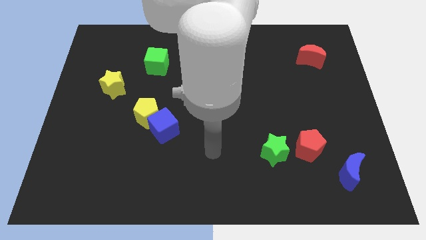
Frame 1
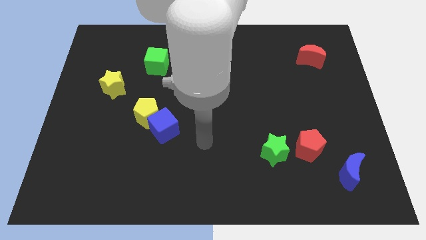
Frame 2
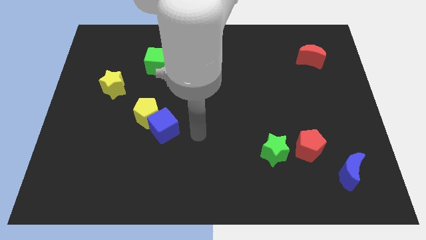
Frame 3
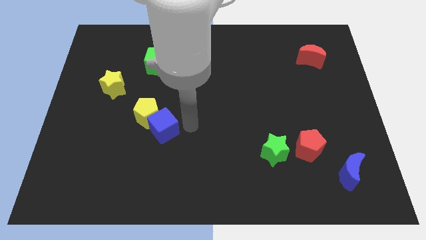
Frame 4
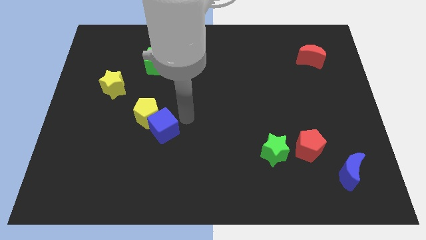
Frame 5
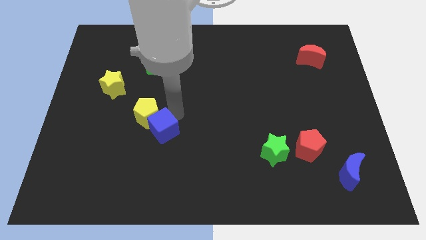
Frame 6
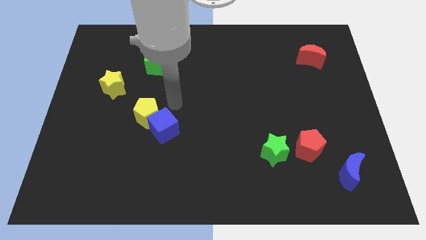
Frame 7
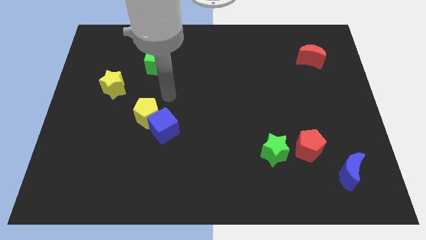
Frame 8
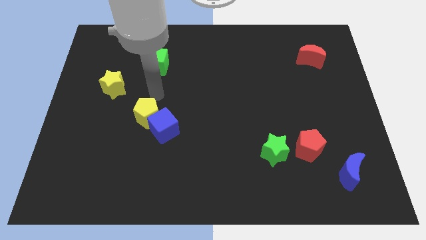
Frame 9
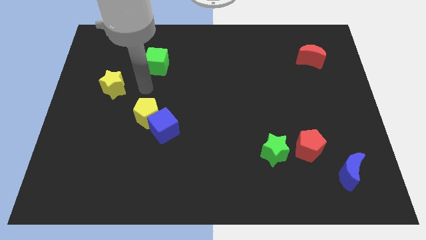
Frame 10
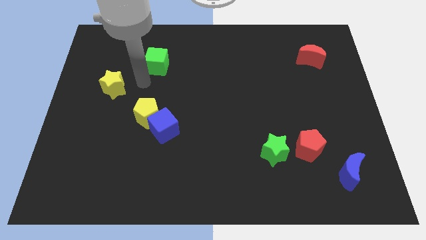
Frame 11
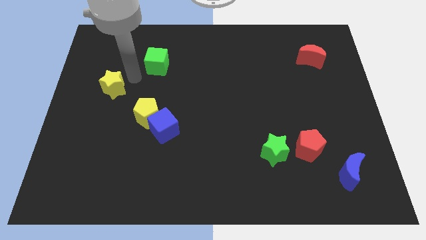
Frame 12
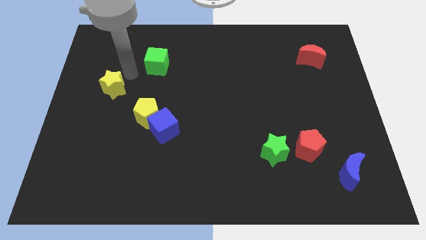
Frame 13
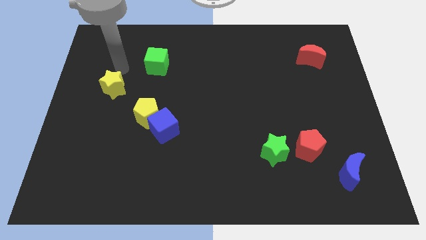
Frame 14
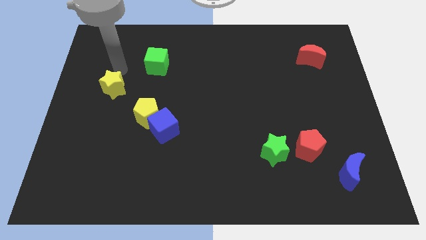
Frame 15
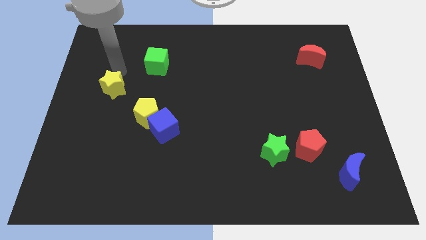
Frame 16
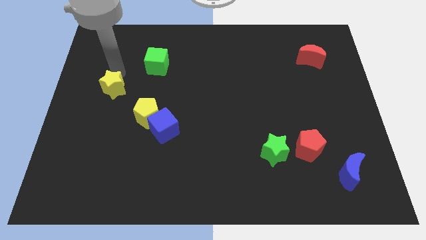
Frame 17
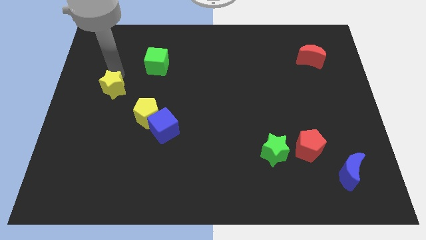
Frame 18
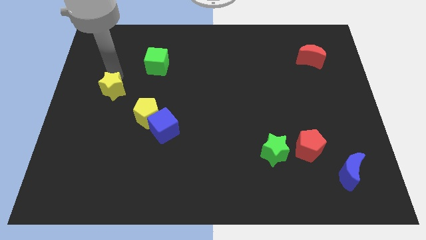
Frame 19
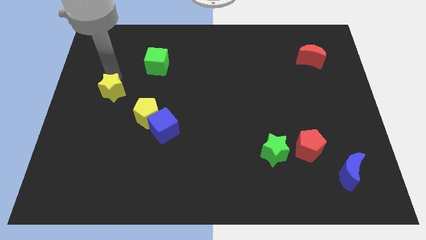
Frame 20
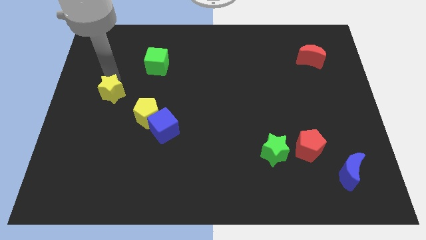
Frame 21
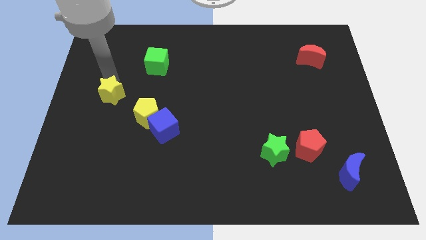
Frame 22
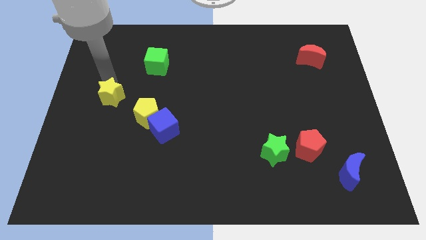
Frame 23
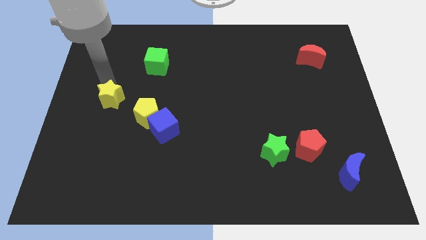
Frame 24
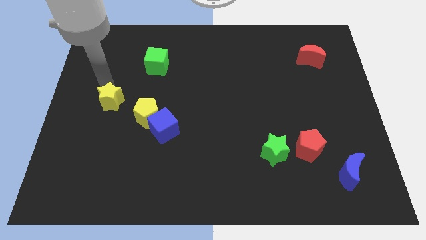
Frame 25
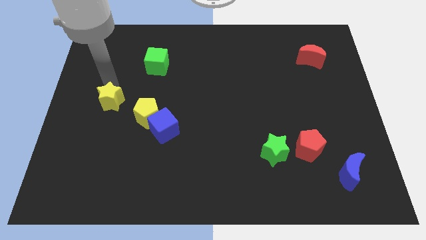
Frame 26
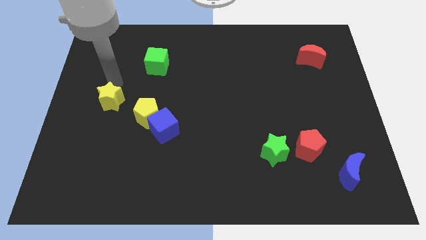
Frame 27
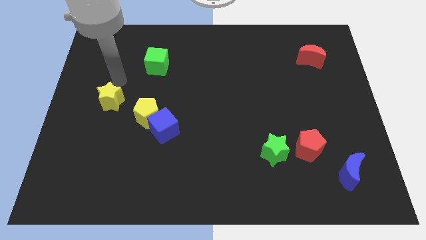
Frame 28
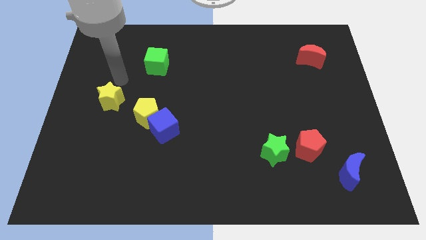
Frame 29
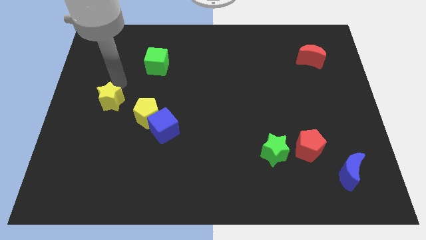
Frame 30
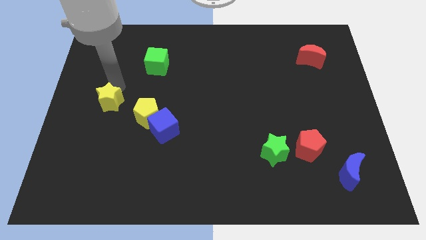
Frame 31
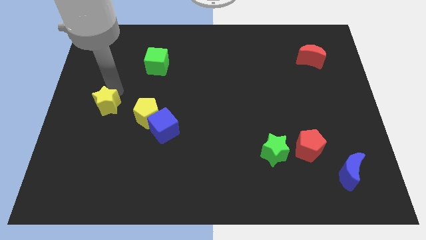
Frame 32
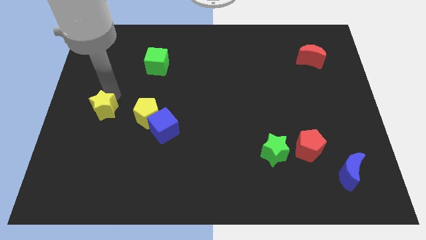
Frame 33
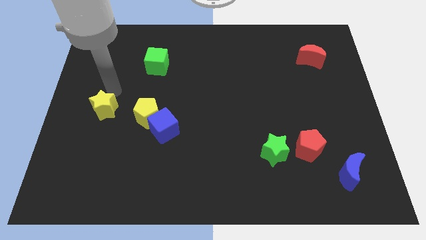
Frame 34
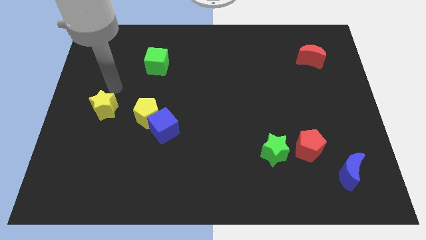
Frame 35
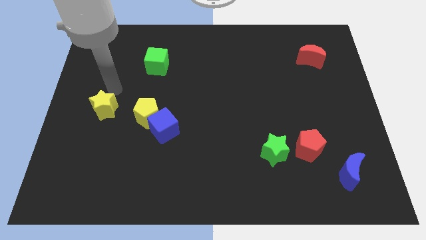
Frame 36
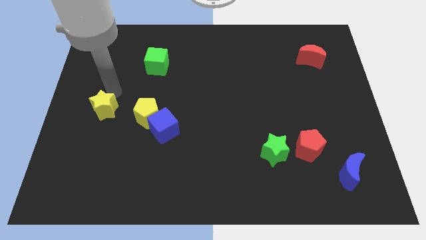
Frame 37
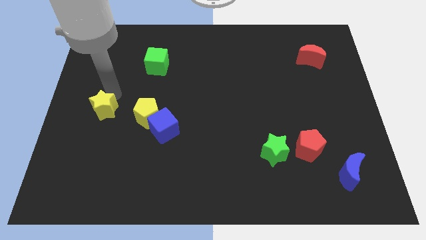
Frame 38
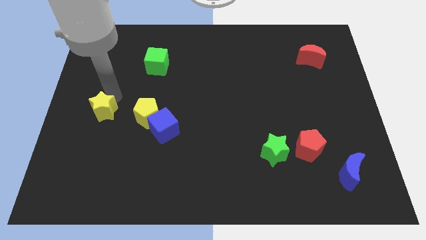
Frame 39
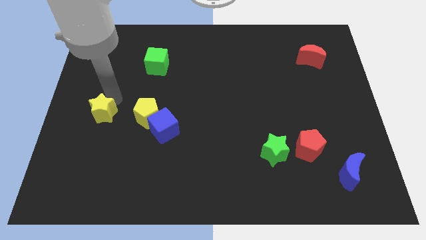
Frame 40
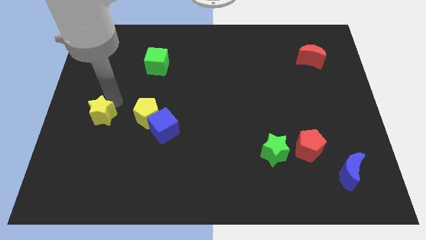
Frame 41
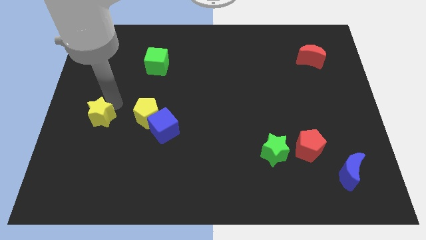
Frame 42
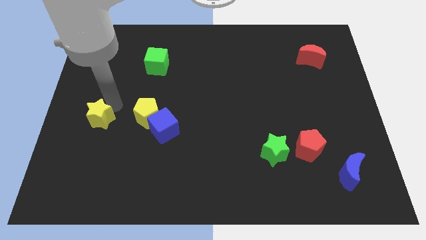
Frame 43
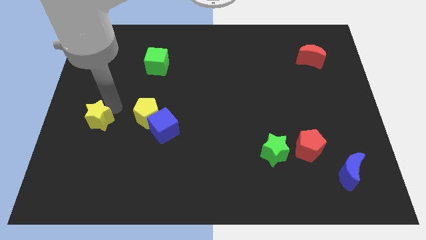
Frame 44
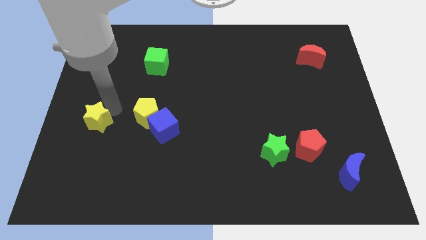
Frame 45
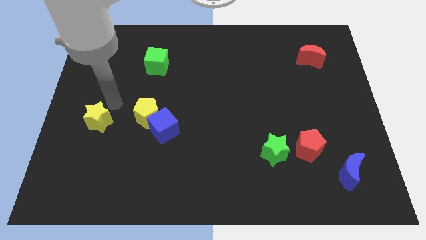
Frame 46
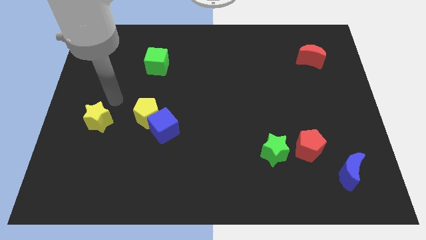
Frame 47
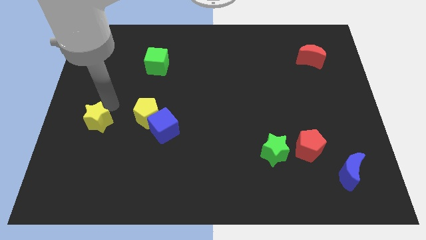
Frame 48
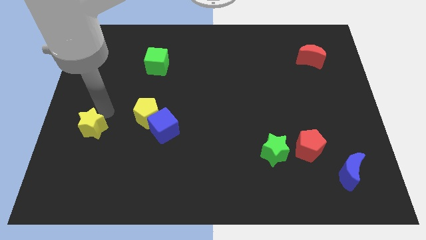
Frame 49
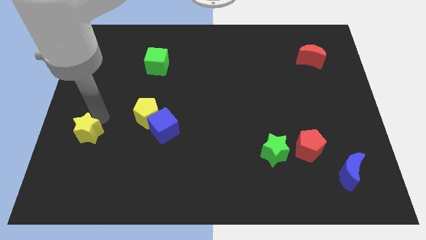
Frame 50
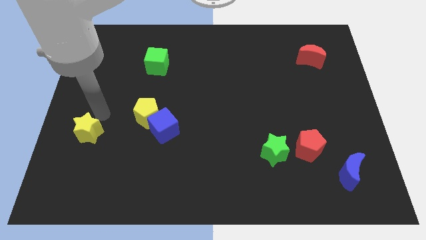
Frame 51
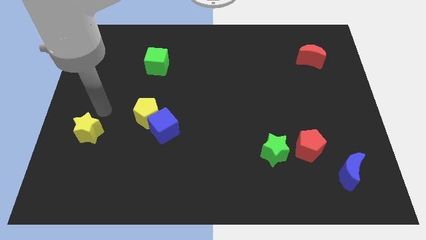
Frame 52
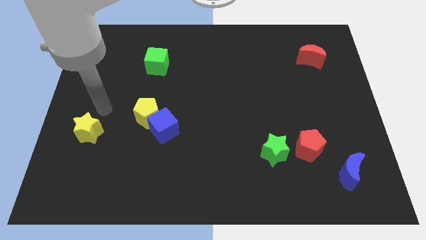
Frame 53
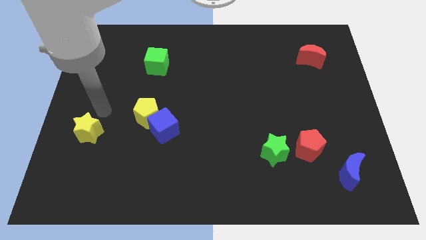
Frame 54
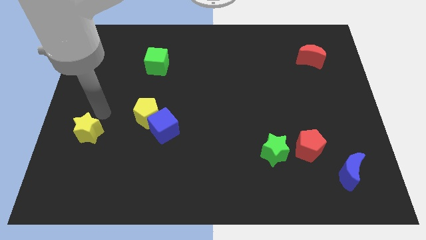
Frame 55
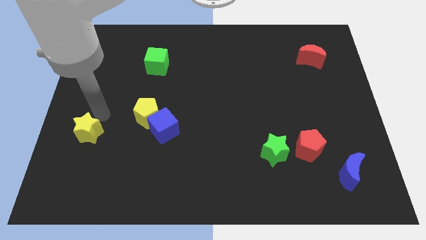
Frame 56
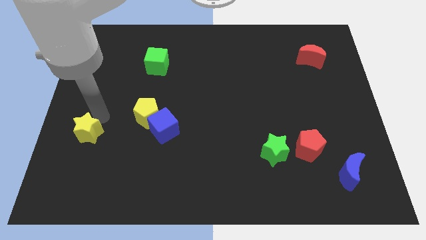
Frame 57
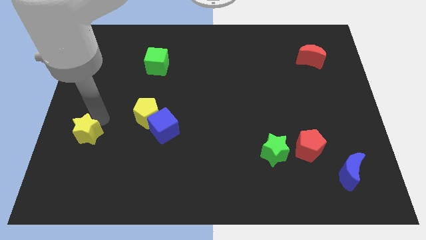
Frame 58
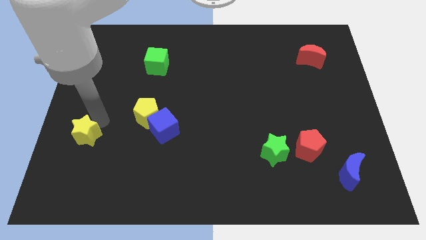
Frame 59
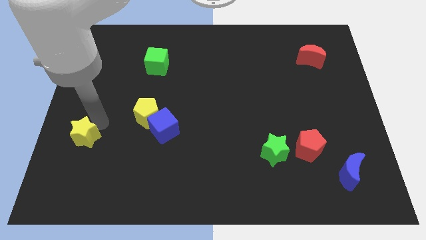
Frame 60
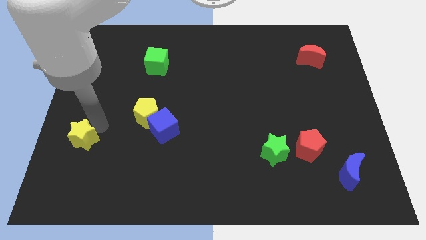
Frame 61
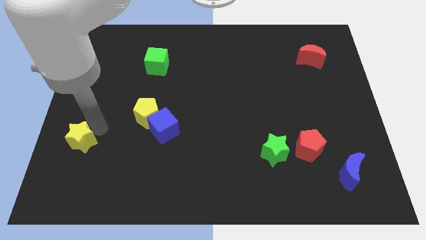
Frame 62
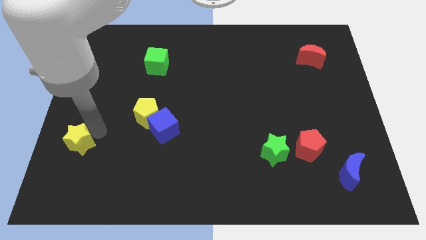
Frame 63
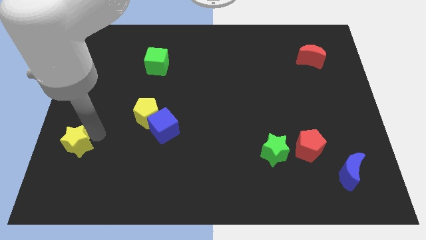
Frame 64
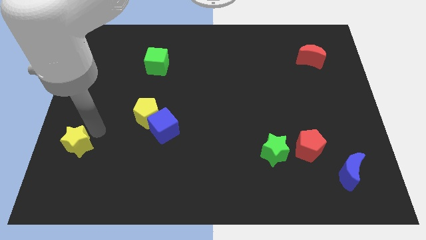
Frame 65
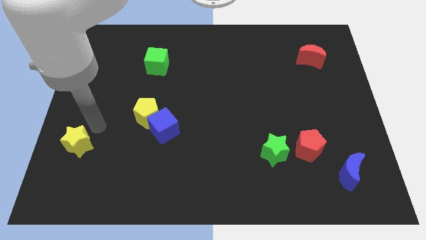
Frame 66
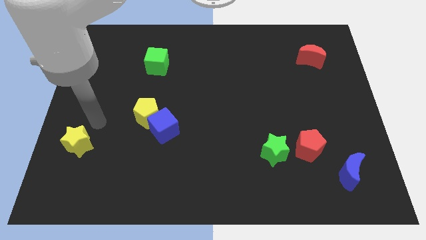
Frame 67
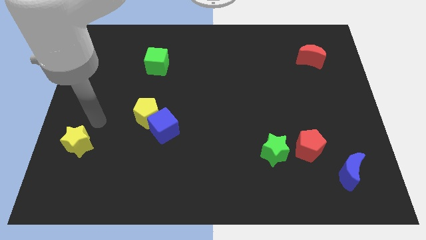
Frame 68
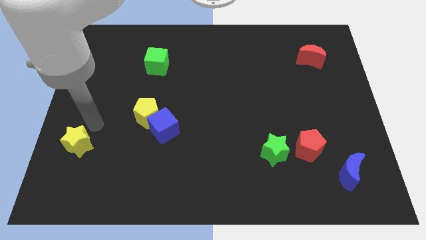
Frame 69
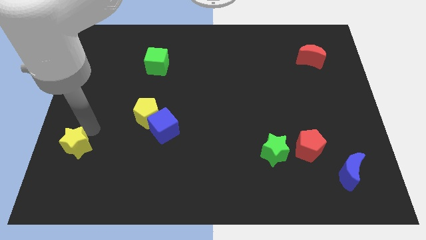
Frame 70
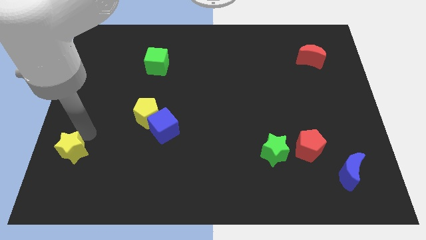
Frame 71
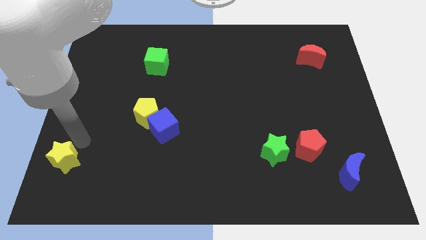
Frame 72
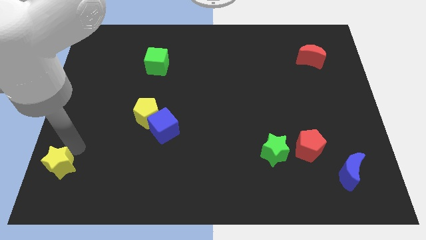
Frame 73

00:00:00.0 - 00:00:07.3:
slide the yellow star to the bottom left of the board
